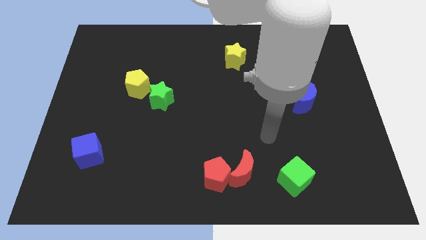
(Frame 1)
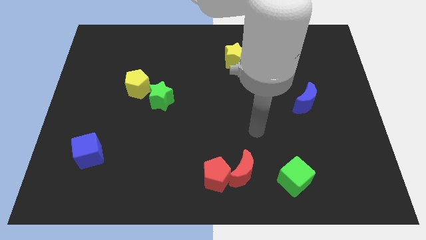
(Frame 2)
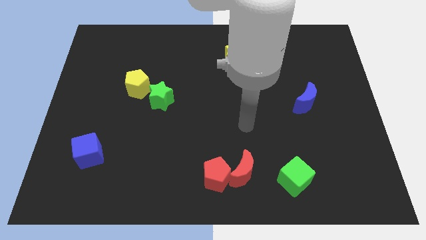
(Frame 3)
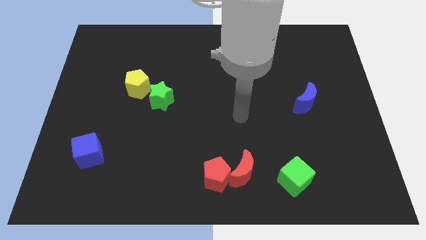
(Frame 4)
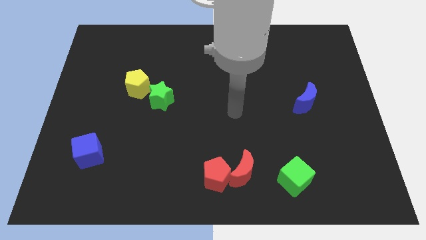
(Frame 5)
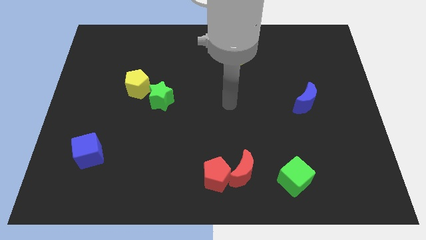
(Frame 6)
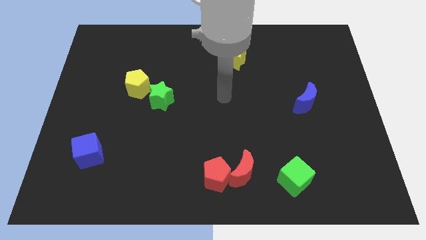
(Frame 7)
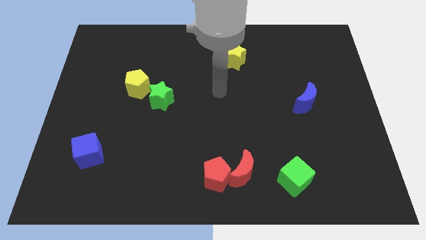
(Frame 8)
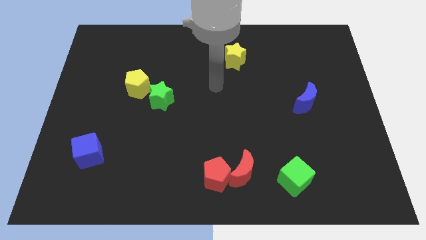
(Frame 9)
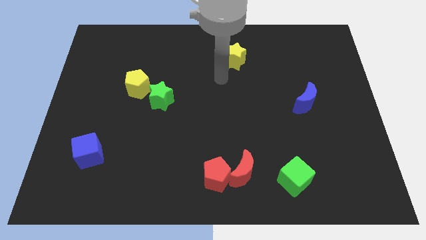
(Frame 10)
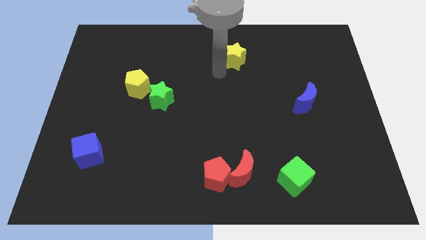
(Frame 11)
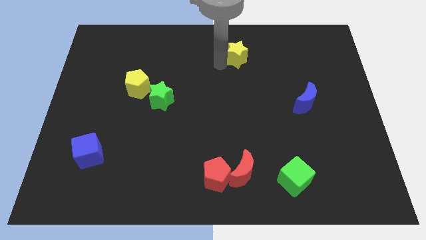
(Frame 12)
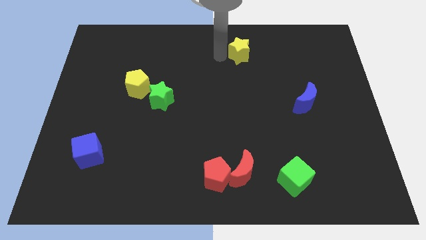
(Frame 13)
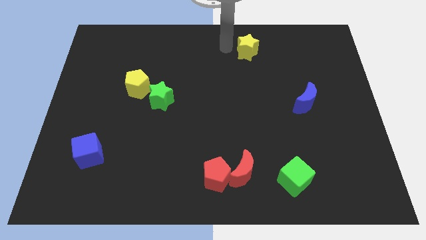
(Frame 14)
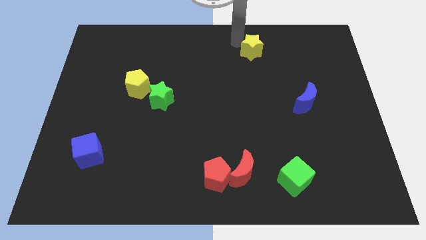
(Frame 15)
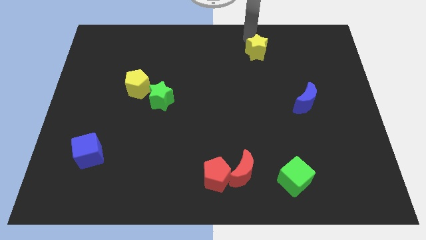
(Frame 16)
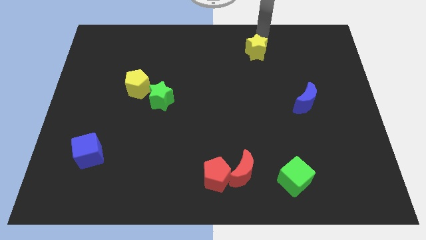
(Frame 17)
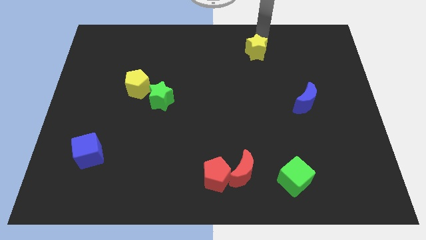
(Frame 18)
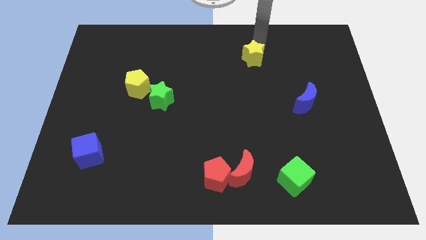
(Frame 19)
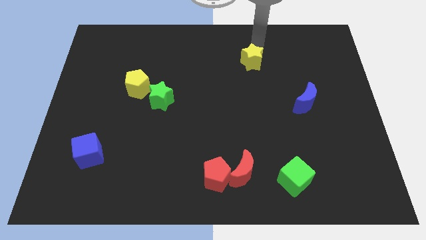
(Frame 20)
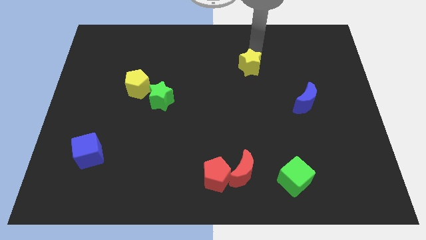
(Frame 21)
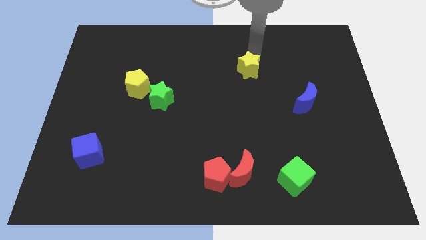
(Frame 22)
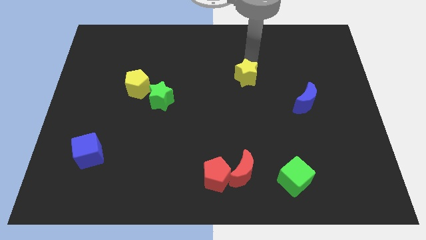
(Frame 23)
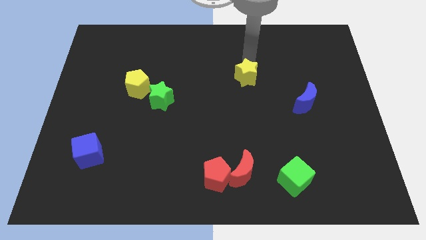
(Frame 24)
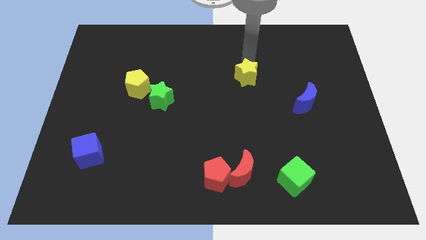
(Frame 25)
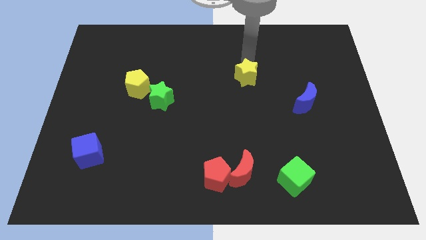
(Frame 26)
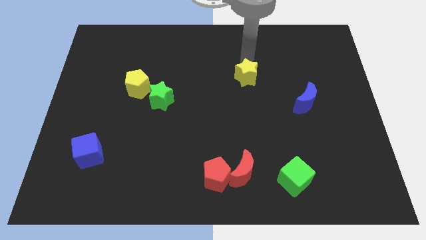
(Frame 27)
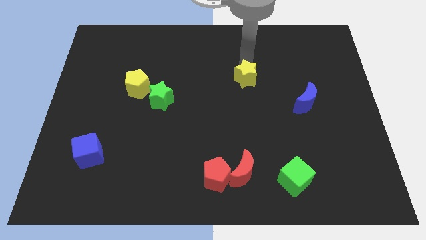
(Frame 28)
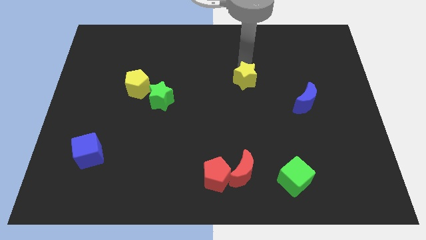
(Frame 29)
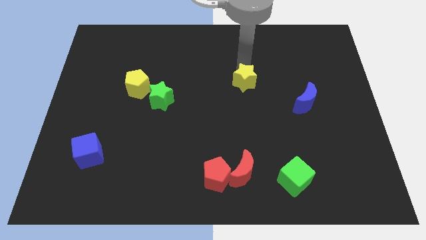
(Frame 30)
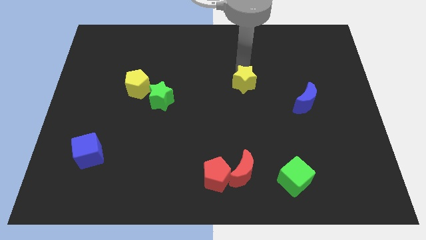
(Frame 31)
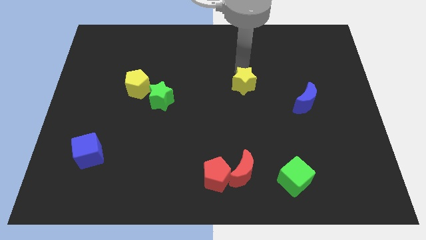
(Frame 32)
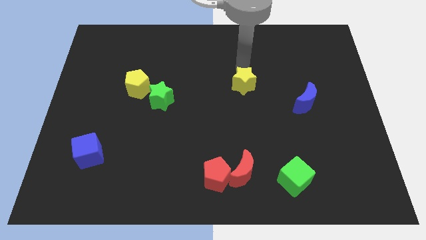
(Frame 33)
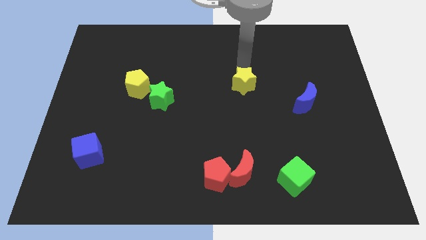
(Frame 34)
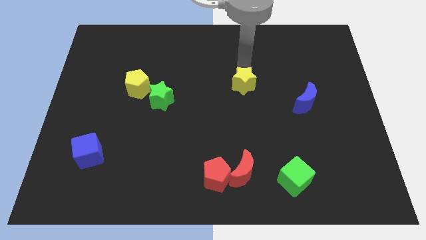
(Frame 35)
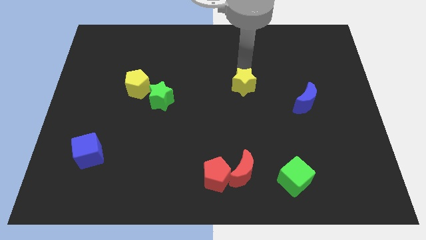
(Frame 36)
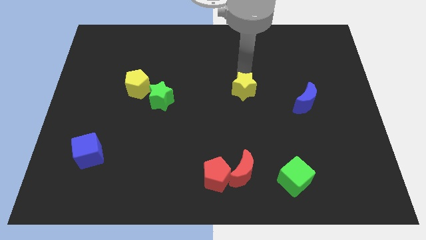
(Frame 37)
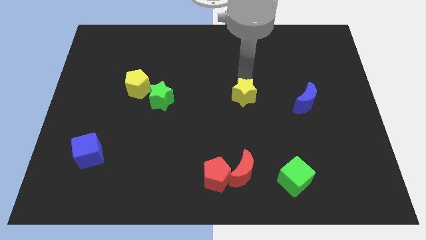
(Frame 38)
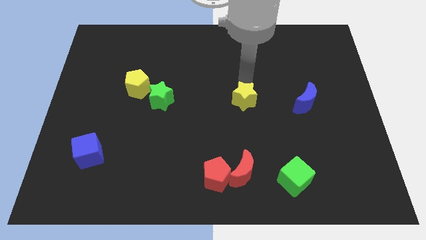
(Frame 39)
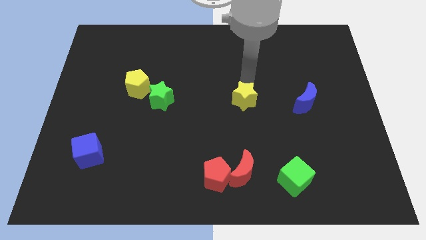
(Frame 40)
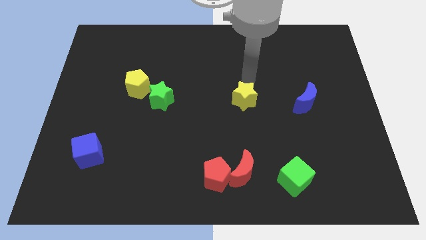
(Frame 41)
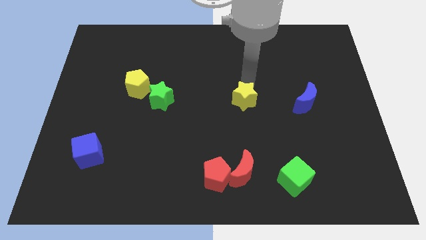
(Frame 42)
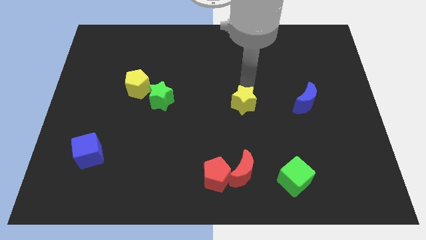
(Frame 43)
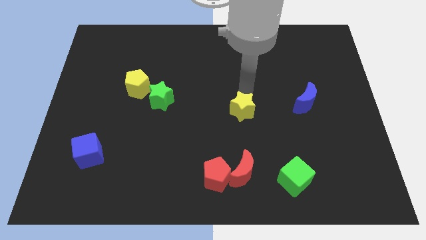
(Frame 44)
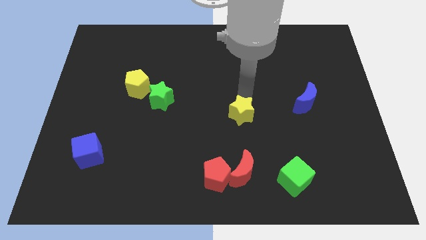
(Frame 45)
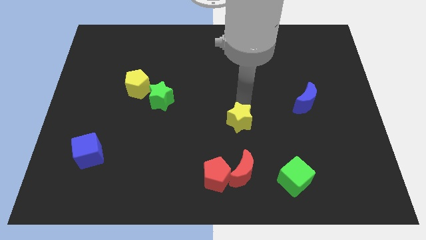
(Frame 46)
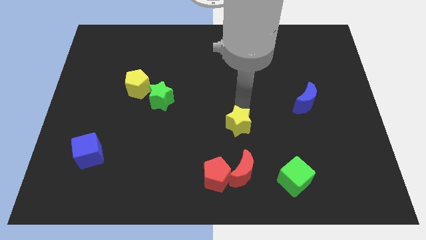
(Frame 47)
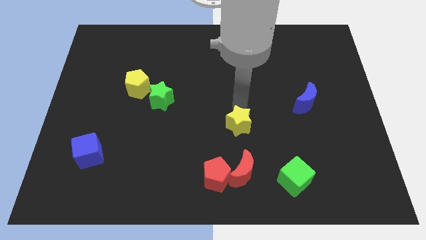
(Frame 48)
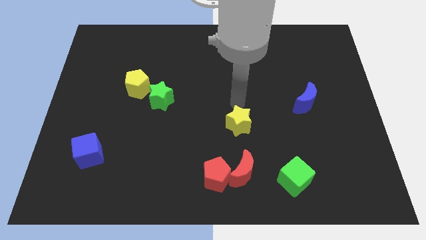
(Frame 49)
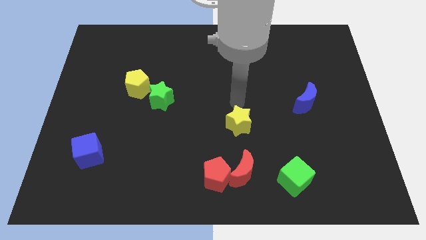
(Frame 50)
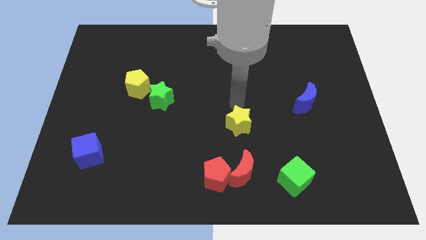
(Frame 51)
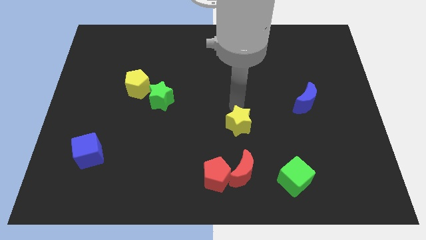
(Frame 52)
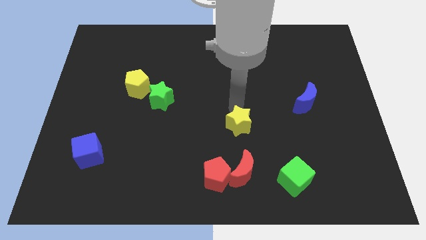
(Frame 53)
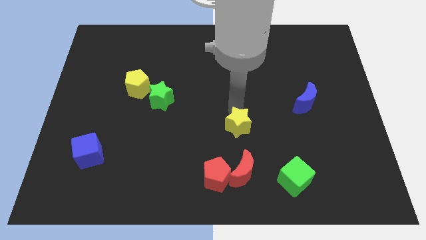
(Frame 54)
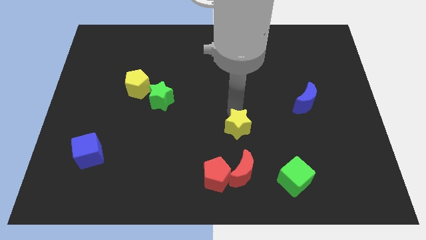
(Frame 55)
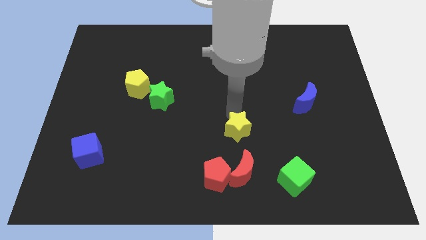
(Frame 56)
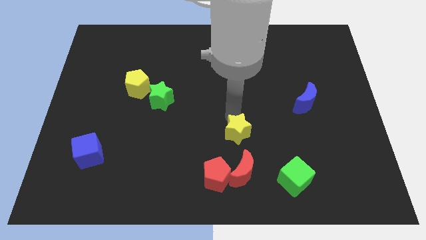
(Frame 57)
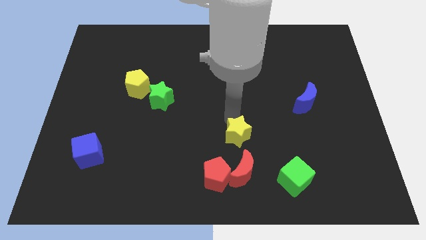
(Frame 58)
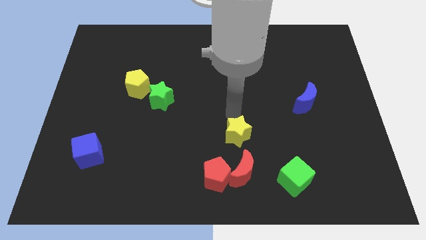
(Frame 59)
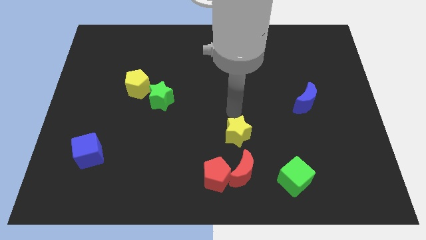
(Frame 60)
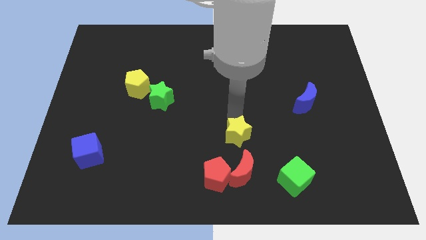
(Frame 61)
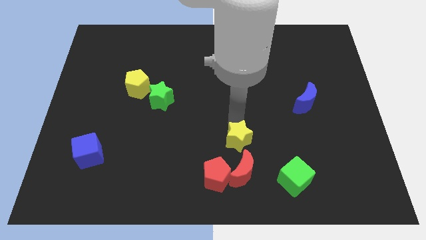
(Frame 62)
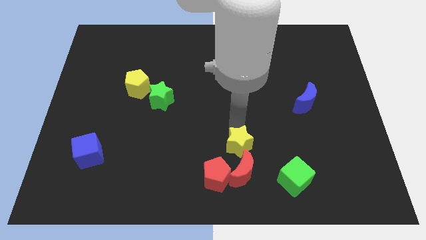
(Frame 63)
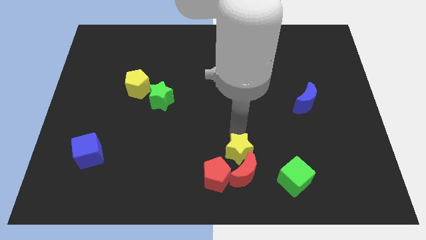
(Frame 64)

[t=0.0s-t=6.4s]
put the yellow star close to the red moon

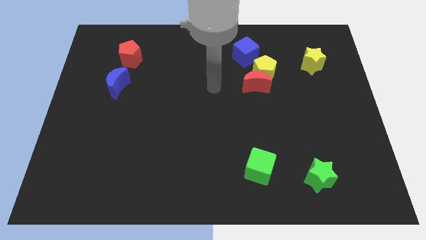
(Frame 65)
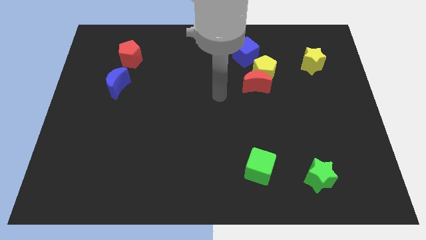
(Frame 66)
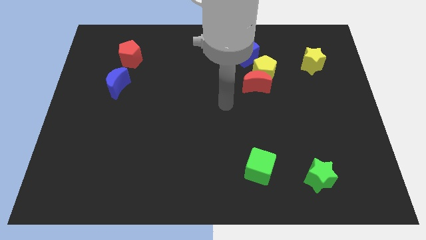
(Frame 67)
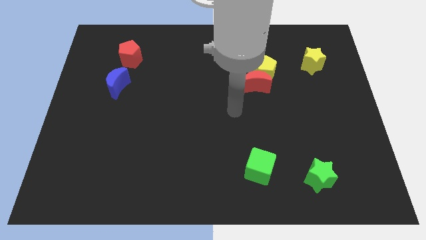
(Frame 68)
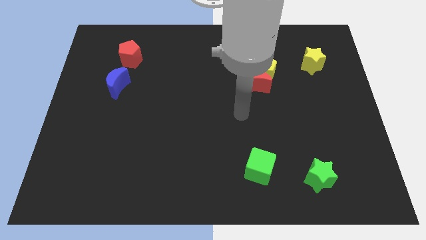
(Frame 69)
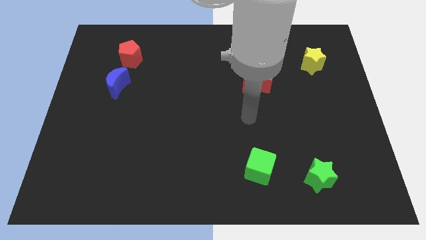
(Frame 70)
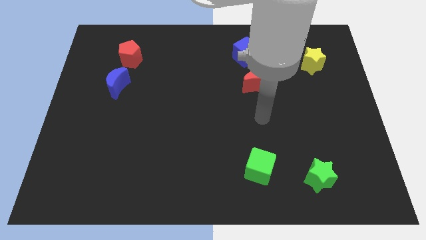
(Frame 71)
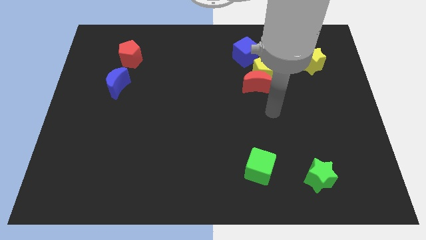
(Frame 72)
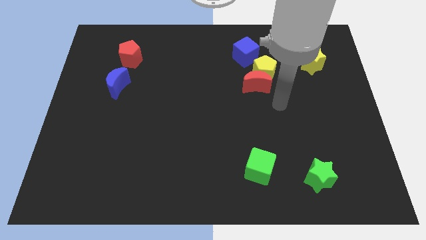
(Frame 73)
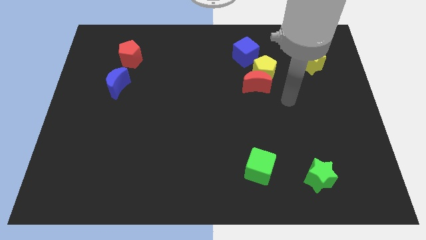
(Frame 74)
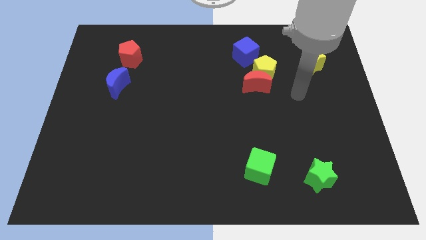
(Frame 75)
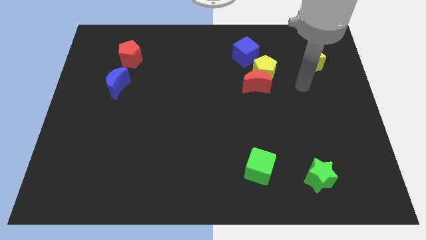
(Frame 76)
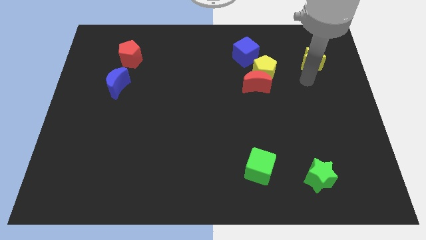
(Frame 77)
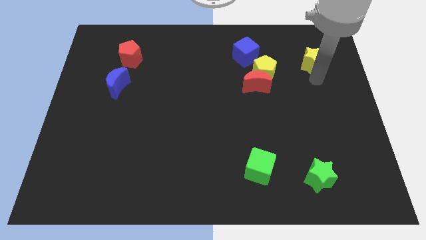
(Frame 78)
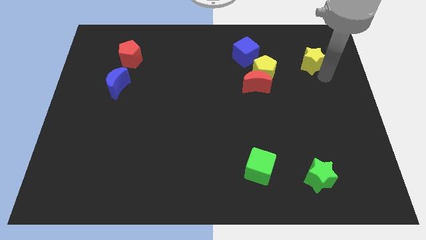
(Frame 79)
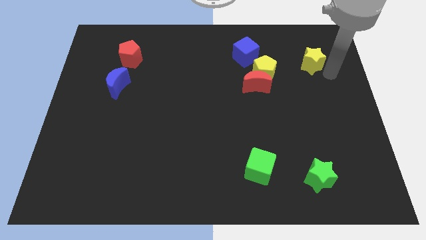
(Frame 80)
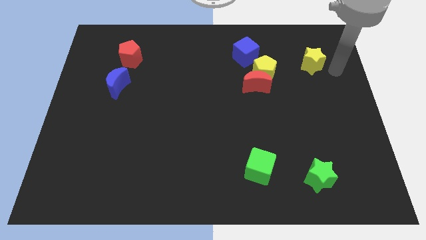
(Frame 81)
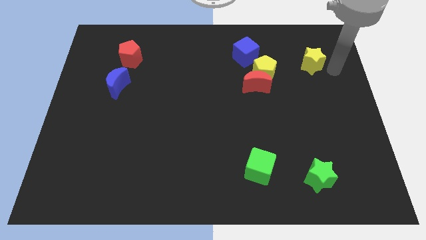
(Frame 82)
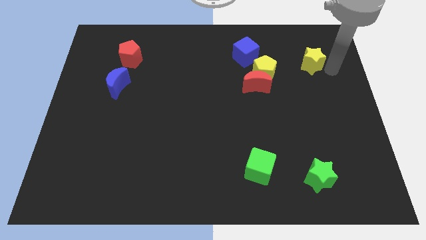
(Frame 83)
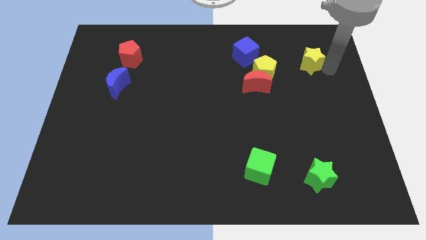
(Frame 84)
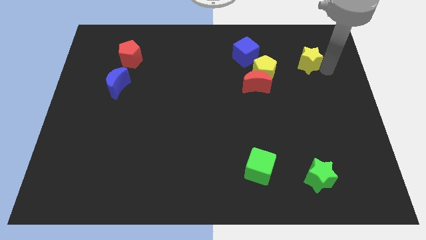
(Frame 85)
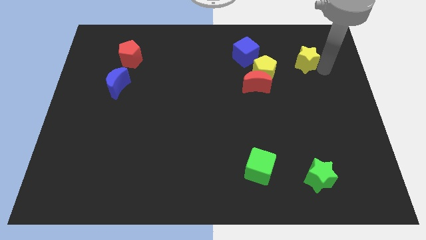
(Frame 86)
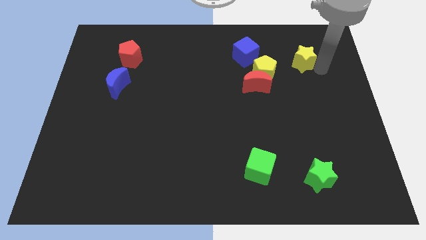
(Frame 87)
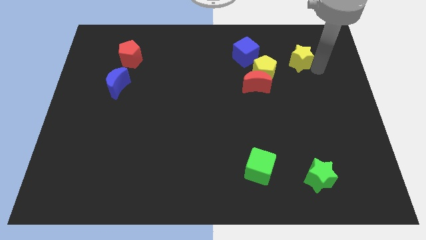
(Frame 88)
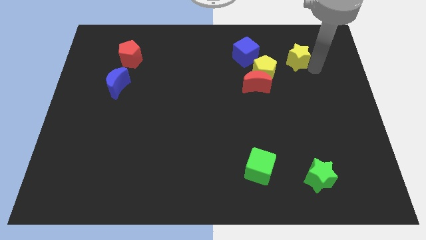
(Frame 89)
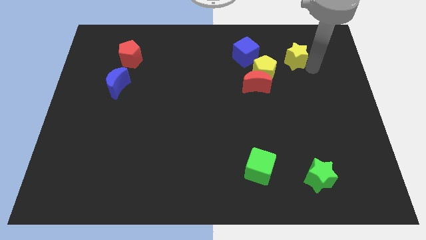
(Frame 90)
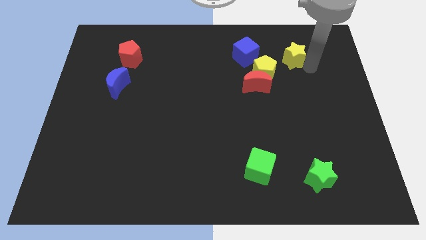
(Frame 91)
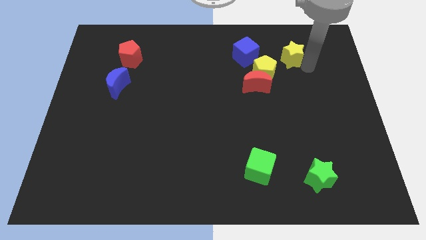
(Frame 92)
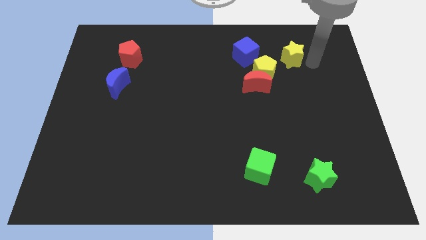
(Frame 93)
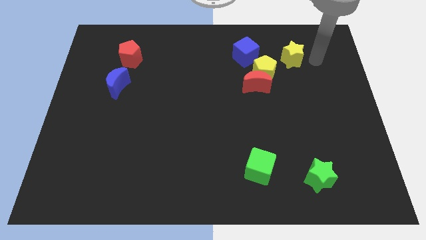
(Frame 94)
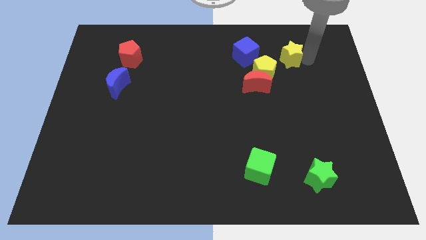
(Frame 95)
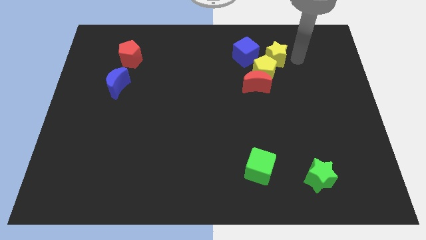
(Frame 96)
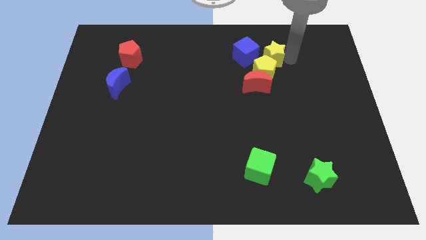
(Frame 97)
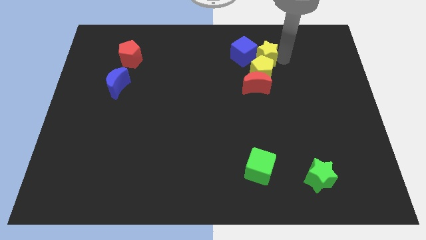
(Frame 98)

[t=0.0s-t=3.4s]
slide the yellow star close to the blue cube
